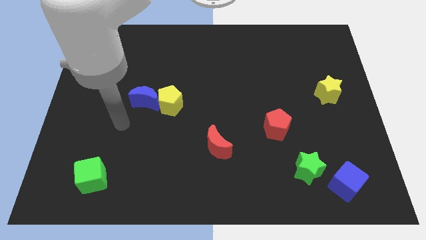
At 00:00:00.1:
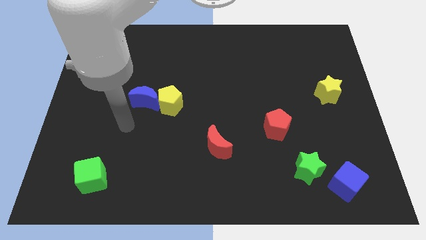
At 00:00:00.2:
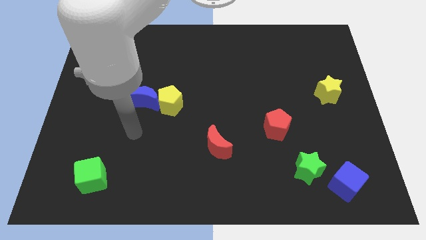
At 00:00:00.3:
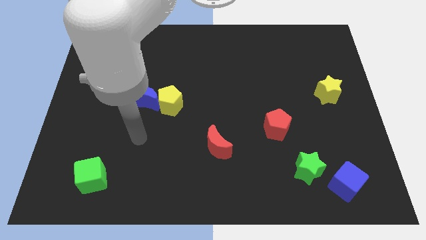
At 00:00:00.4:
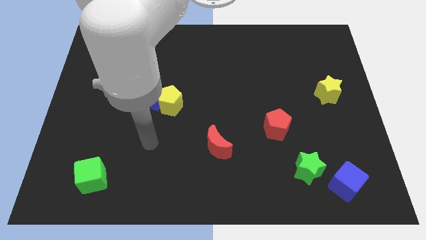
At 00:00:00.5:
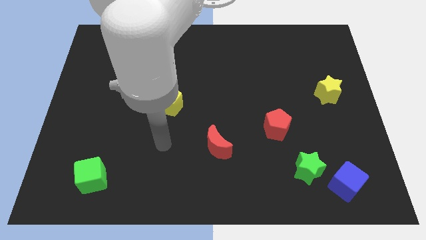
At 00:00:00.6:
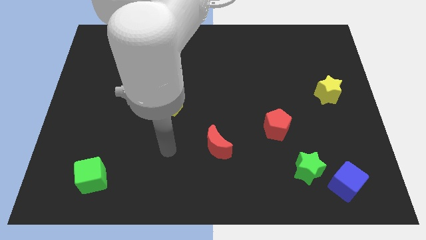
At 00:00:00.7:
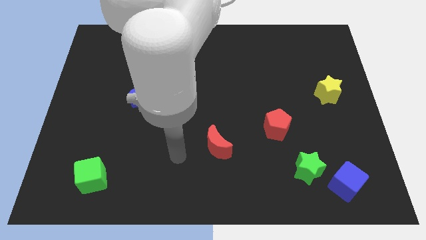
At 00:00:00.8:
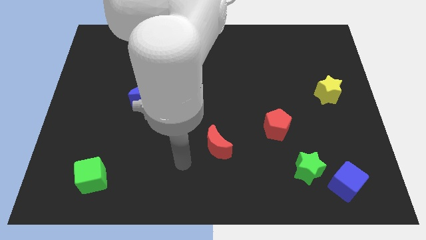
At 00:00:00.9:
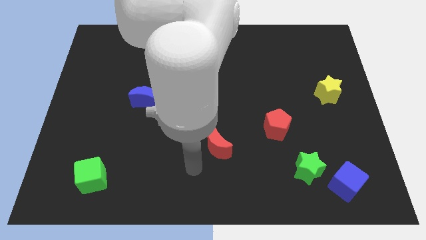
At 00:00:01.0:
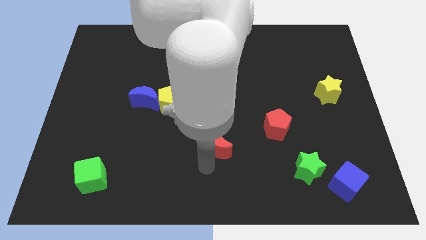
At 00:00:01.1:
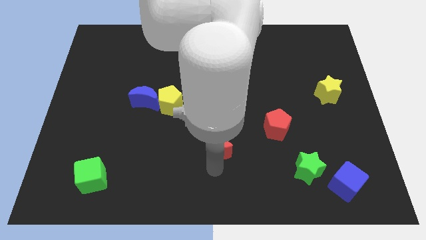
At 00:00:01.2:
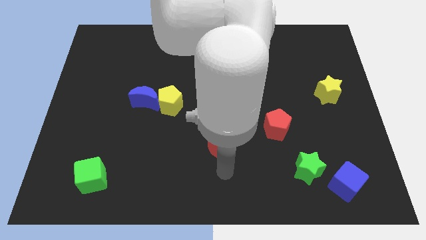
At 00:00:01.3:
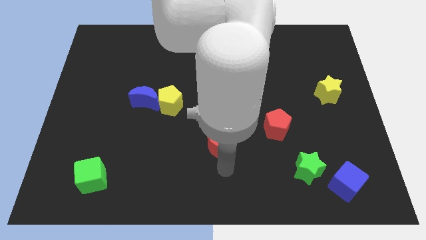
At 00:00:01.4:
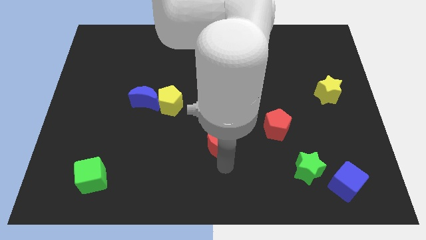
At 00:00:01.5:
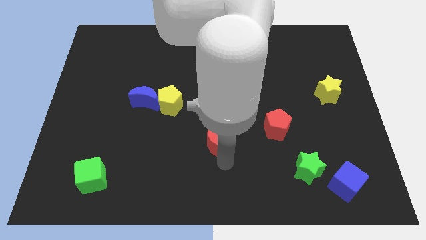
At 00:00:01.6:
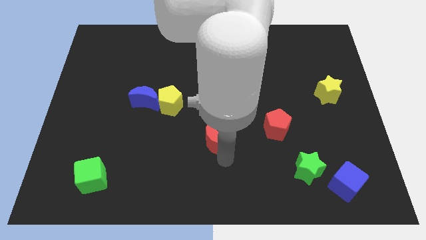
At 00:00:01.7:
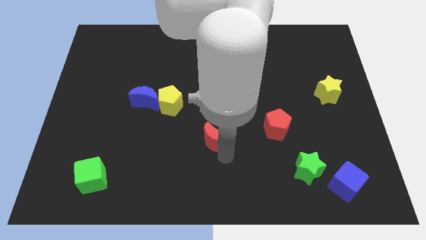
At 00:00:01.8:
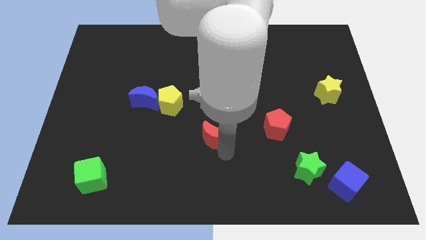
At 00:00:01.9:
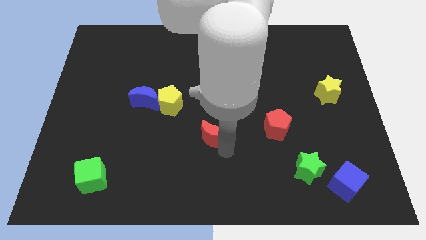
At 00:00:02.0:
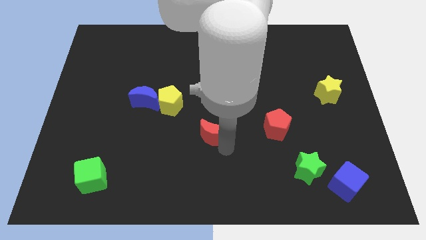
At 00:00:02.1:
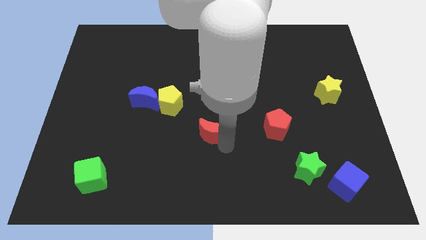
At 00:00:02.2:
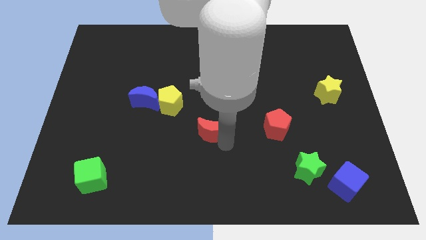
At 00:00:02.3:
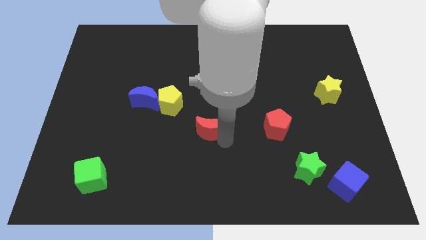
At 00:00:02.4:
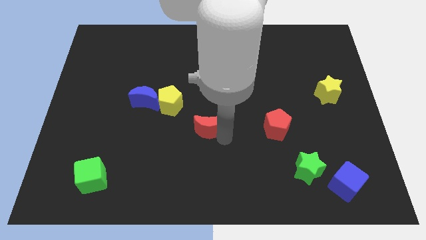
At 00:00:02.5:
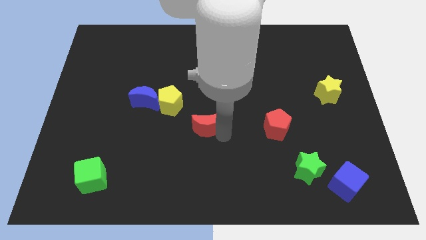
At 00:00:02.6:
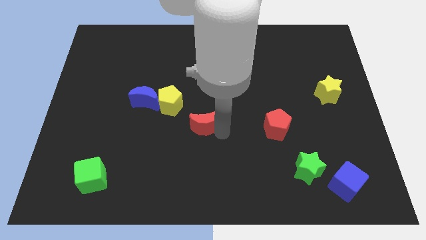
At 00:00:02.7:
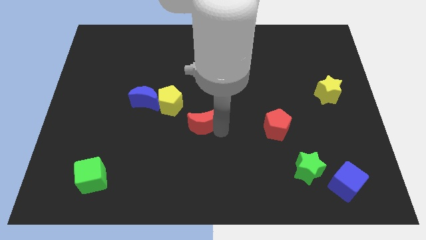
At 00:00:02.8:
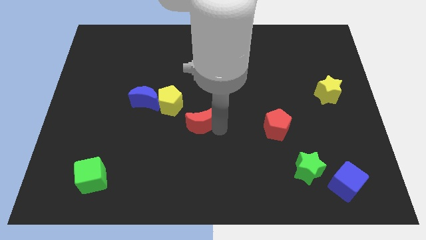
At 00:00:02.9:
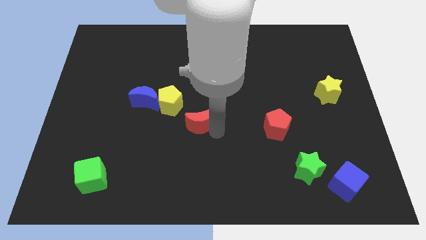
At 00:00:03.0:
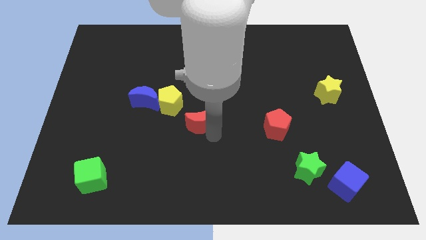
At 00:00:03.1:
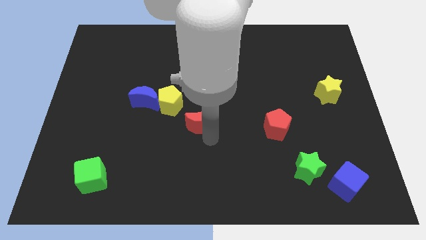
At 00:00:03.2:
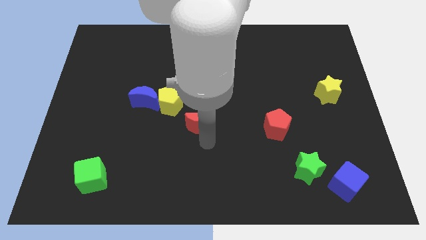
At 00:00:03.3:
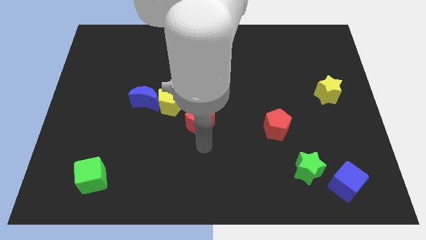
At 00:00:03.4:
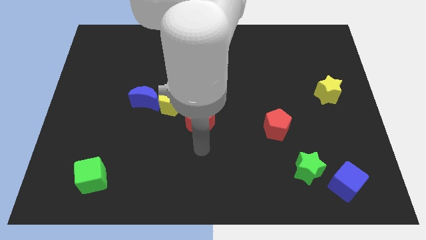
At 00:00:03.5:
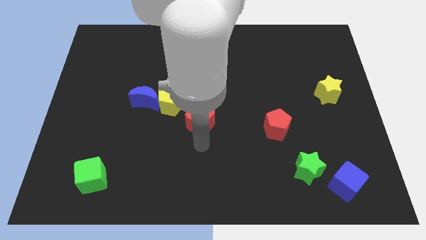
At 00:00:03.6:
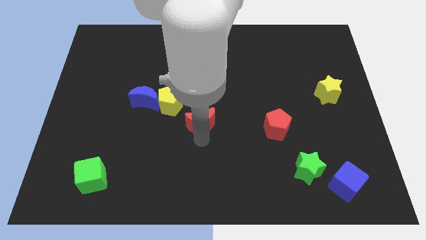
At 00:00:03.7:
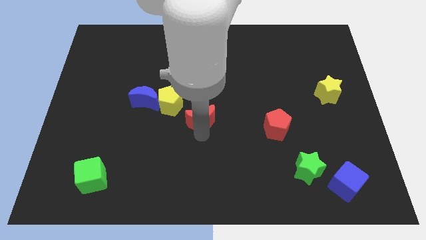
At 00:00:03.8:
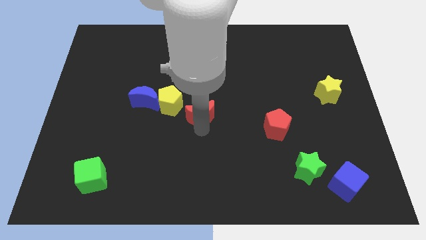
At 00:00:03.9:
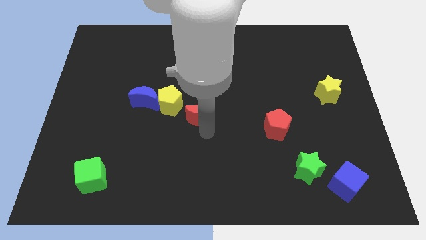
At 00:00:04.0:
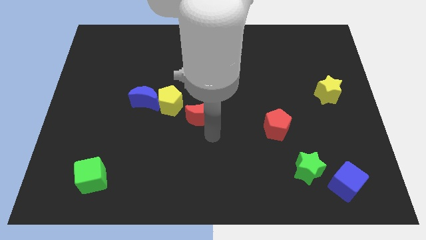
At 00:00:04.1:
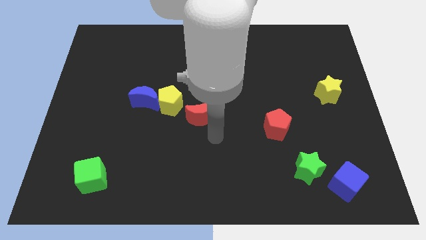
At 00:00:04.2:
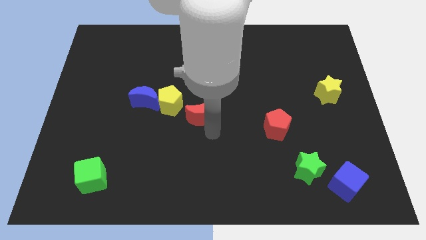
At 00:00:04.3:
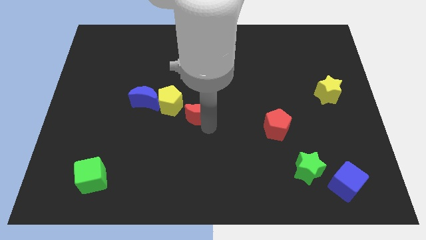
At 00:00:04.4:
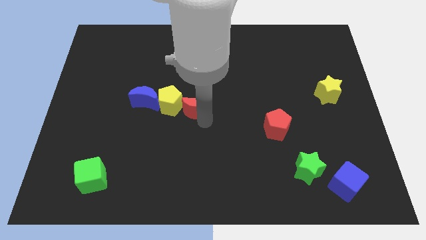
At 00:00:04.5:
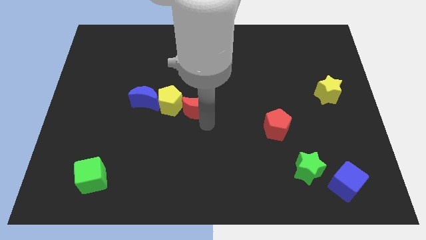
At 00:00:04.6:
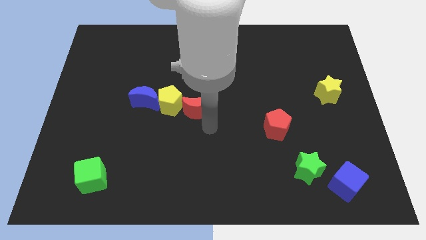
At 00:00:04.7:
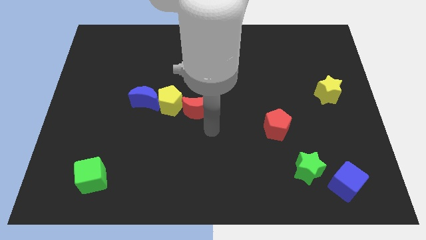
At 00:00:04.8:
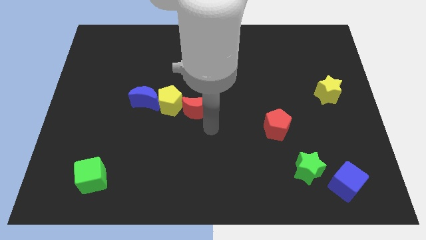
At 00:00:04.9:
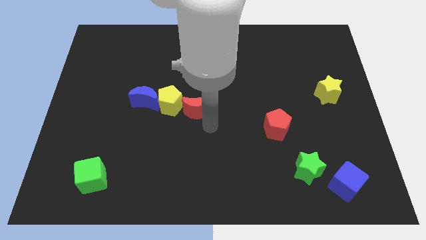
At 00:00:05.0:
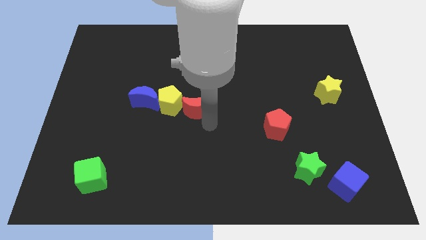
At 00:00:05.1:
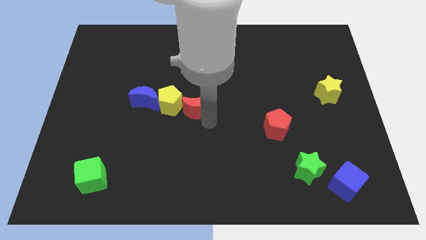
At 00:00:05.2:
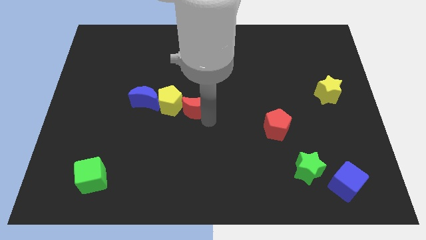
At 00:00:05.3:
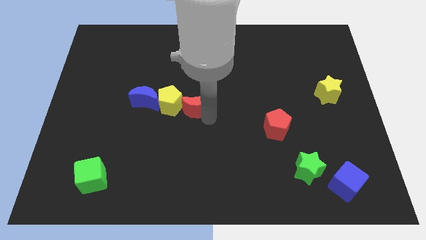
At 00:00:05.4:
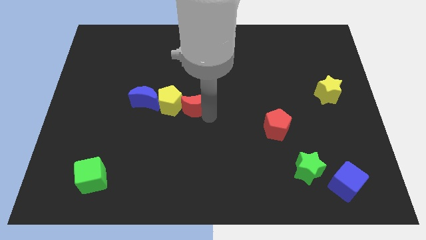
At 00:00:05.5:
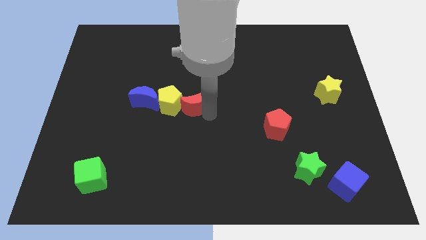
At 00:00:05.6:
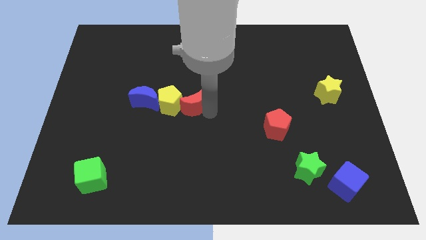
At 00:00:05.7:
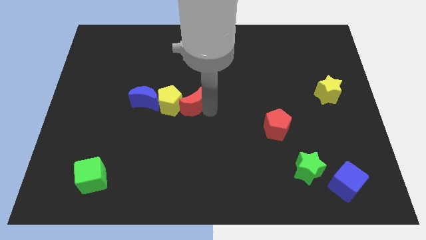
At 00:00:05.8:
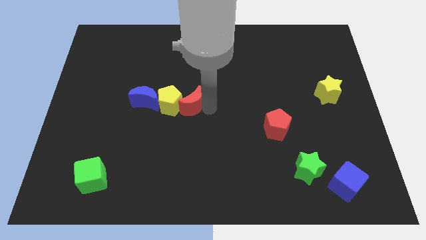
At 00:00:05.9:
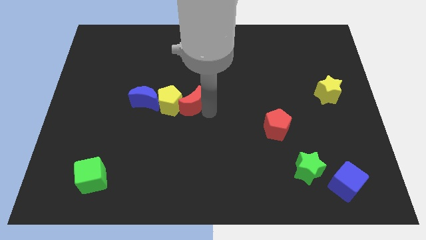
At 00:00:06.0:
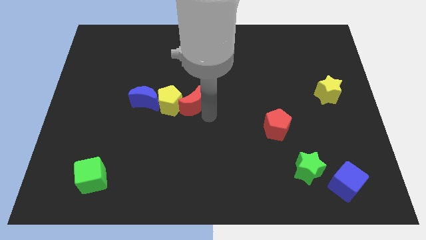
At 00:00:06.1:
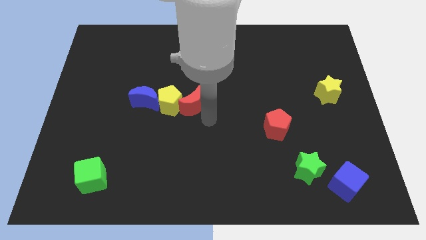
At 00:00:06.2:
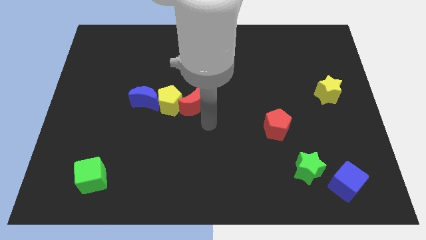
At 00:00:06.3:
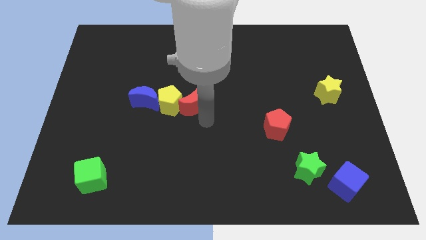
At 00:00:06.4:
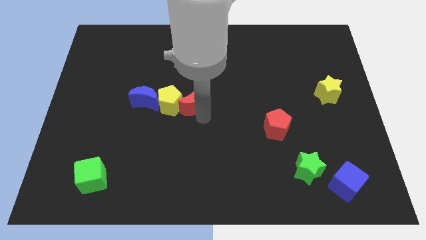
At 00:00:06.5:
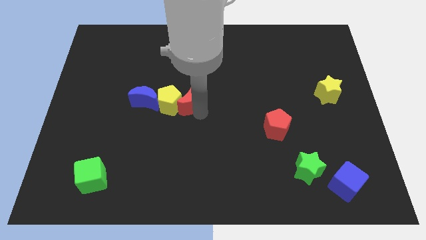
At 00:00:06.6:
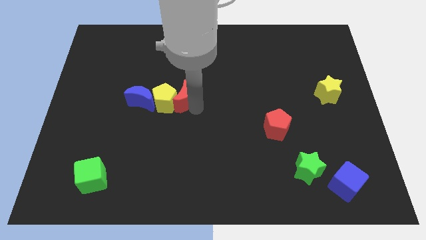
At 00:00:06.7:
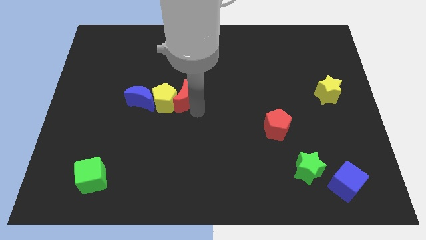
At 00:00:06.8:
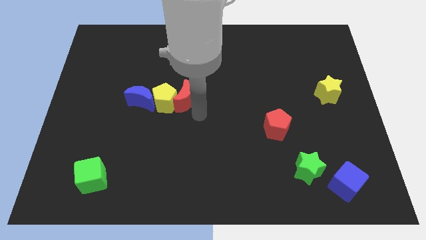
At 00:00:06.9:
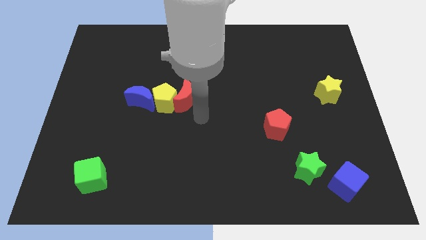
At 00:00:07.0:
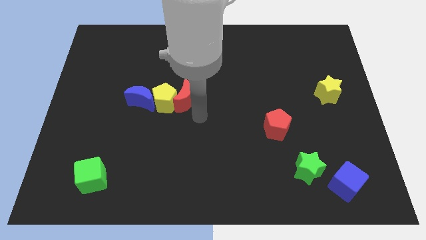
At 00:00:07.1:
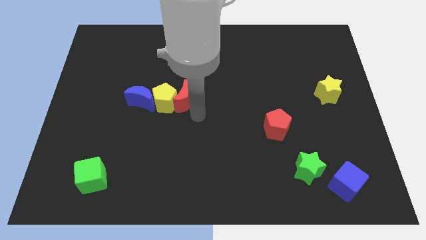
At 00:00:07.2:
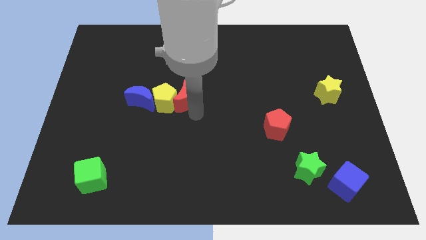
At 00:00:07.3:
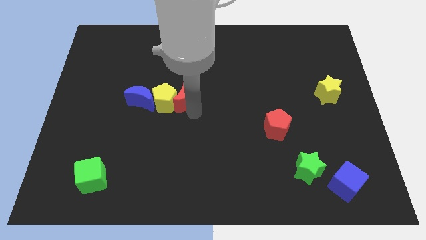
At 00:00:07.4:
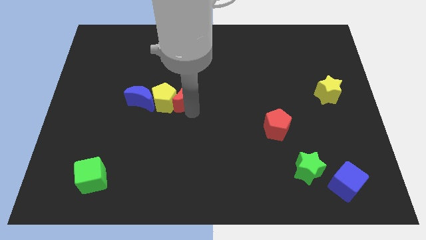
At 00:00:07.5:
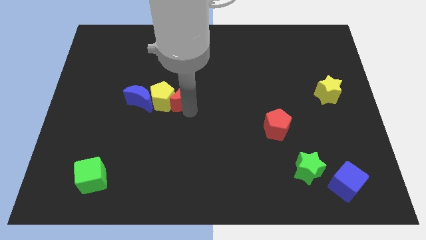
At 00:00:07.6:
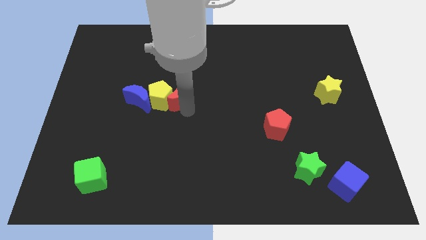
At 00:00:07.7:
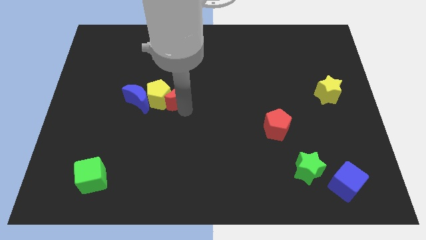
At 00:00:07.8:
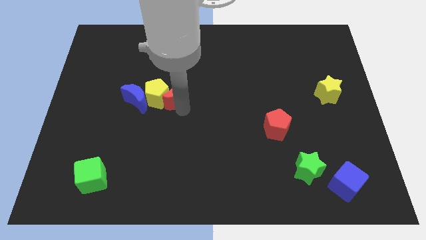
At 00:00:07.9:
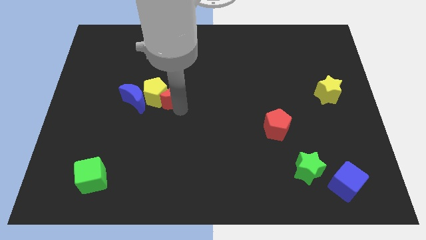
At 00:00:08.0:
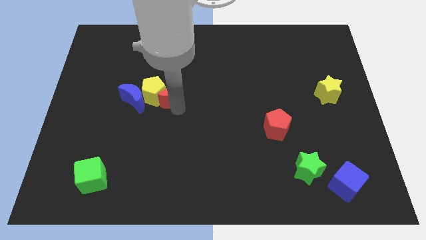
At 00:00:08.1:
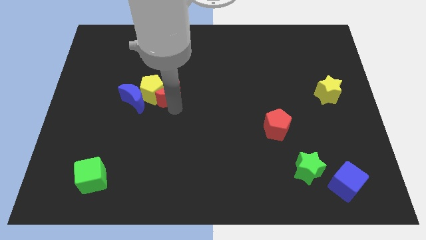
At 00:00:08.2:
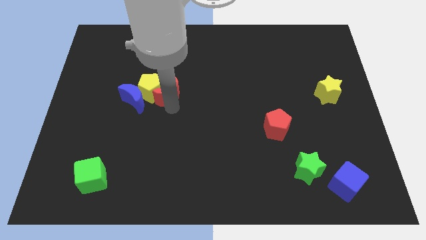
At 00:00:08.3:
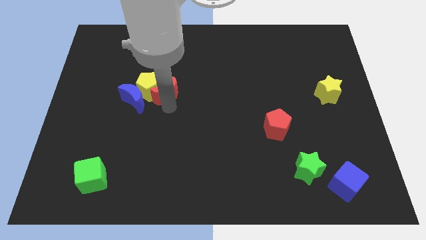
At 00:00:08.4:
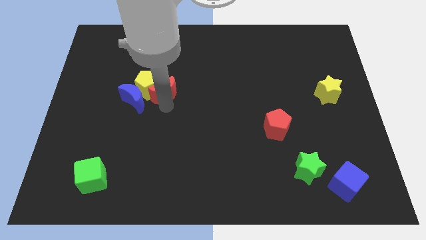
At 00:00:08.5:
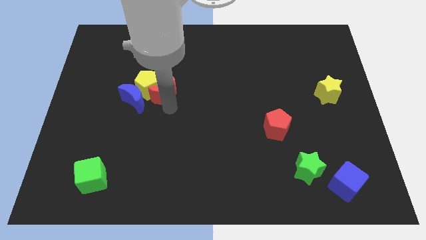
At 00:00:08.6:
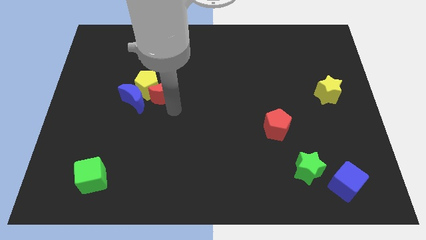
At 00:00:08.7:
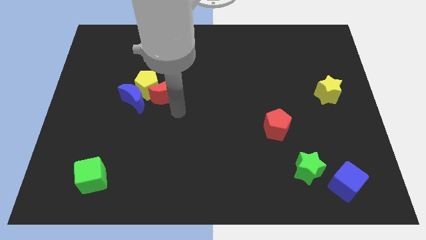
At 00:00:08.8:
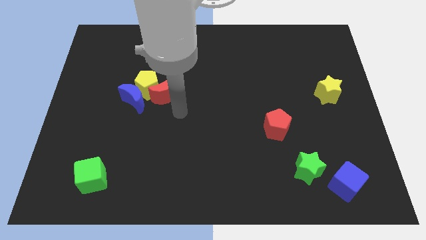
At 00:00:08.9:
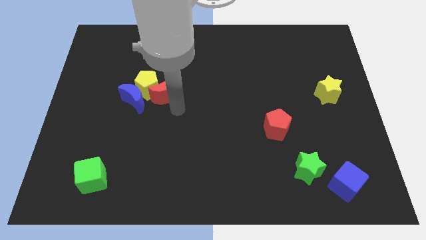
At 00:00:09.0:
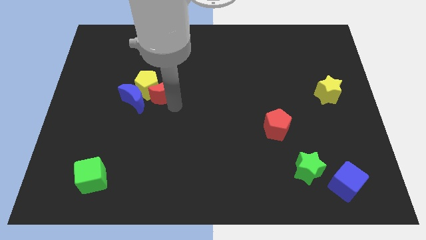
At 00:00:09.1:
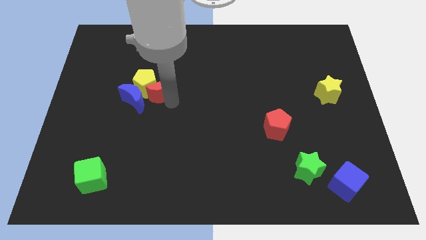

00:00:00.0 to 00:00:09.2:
slide the red moon up and left
